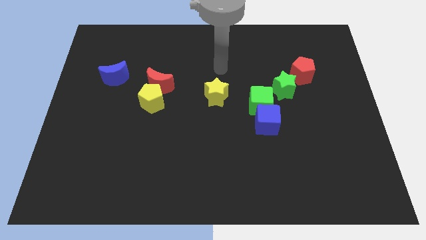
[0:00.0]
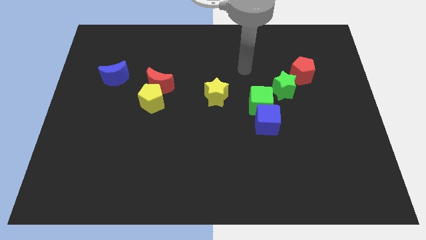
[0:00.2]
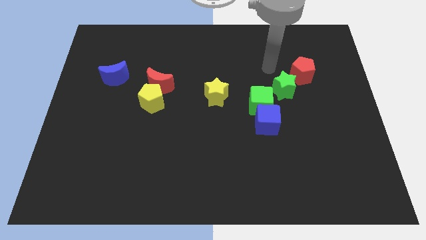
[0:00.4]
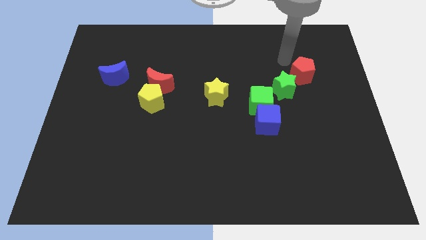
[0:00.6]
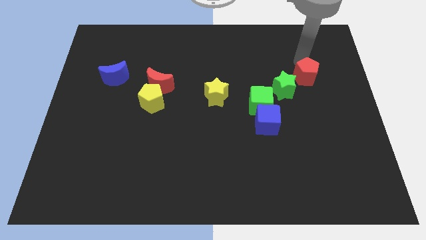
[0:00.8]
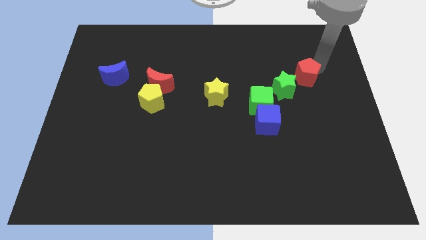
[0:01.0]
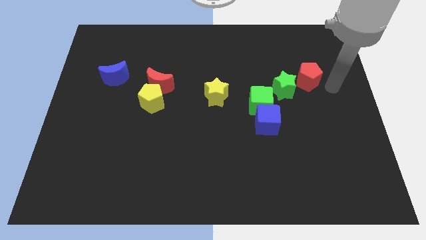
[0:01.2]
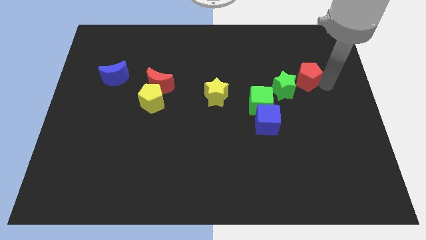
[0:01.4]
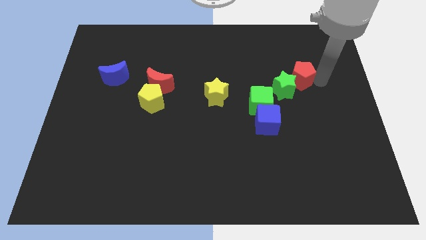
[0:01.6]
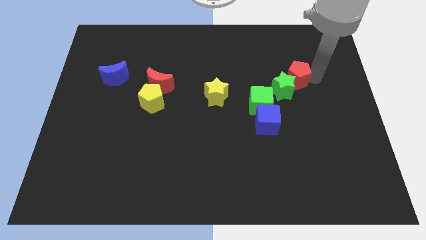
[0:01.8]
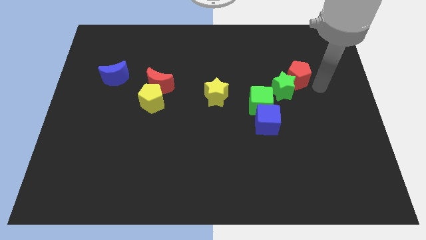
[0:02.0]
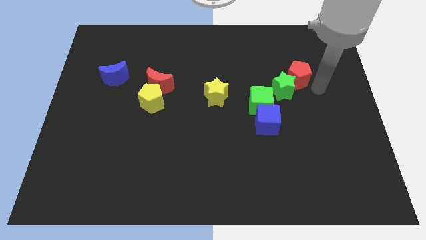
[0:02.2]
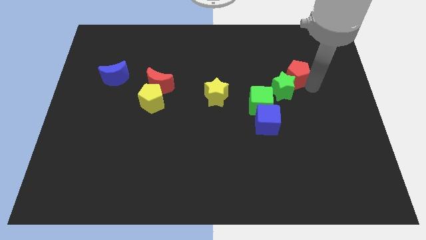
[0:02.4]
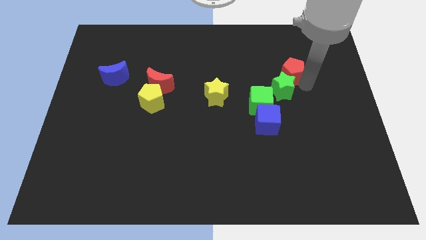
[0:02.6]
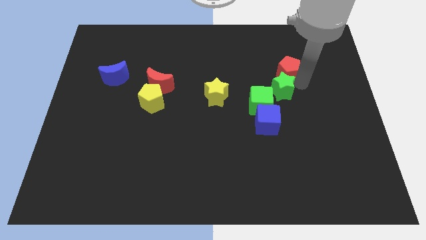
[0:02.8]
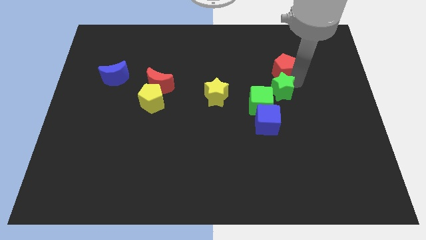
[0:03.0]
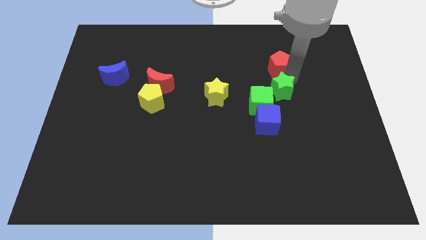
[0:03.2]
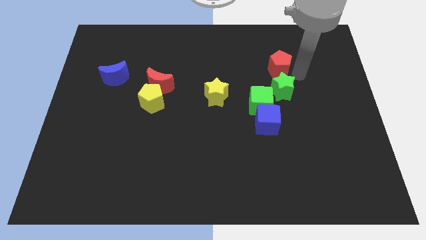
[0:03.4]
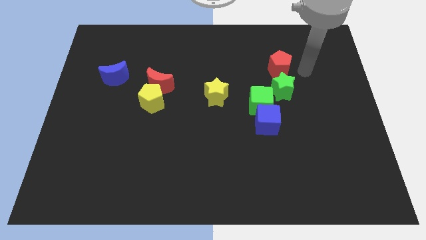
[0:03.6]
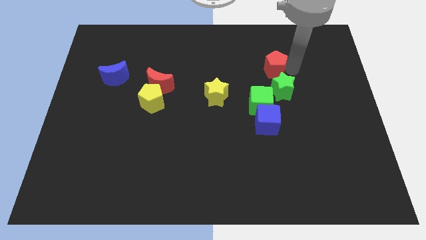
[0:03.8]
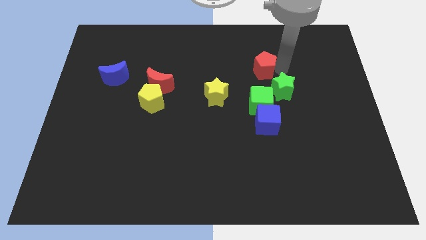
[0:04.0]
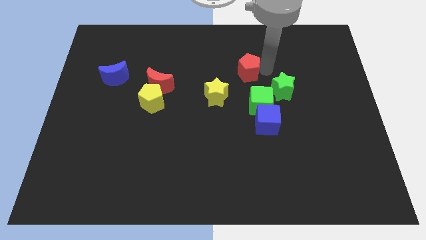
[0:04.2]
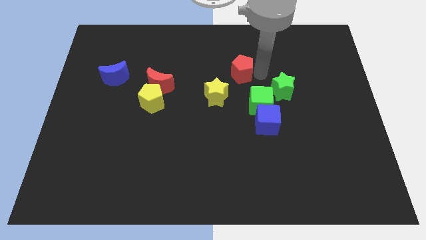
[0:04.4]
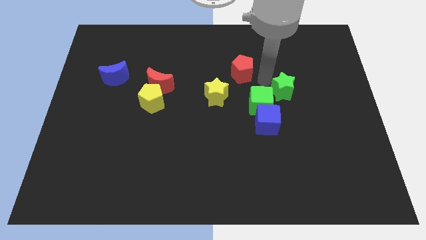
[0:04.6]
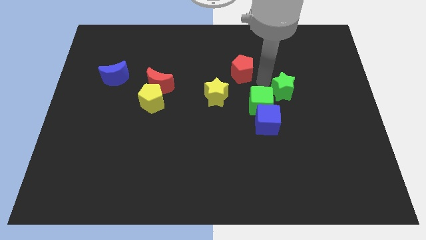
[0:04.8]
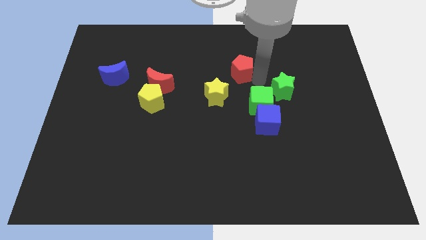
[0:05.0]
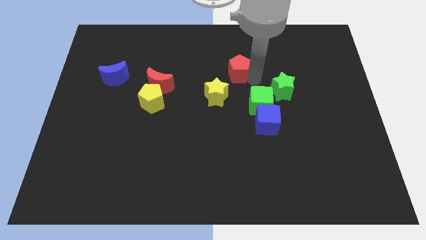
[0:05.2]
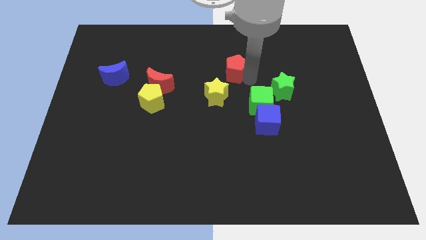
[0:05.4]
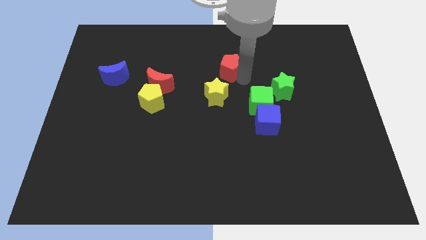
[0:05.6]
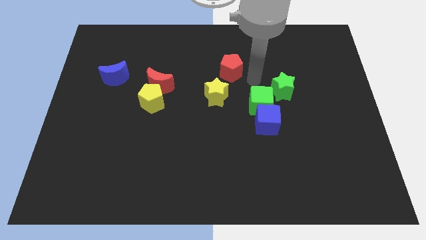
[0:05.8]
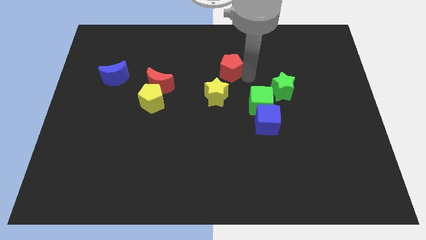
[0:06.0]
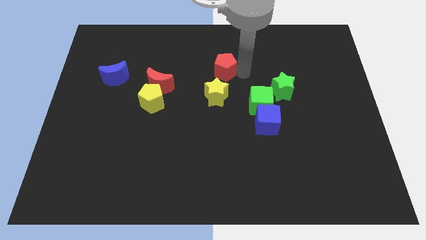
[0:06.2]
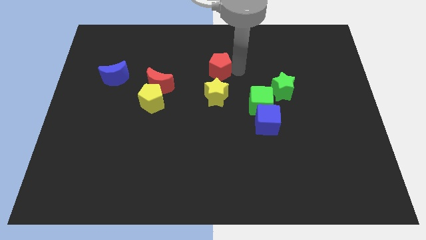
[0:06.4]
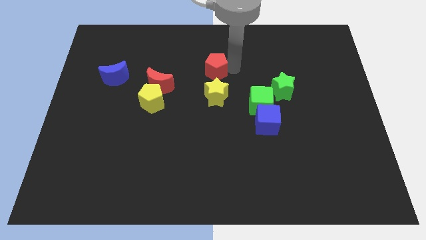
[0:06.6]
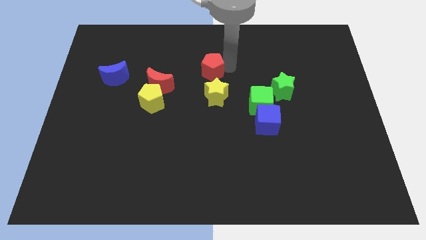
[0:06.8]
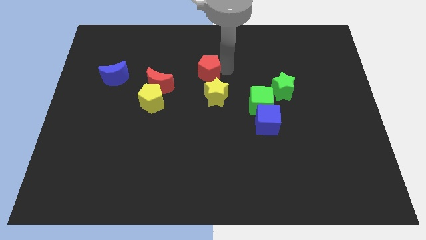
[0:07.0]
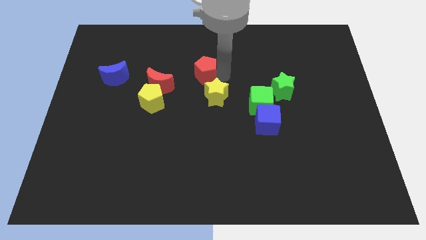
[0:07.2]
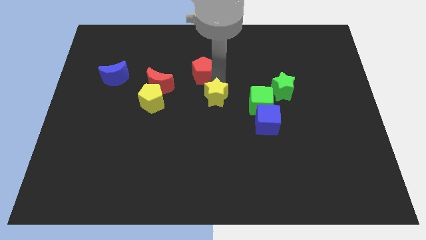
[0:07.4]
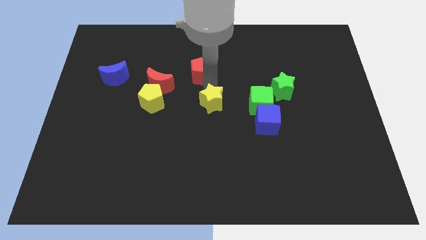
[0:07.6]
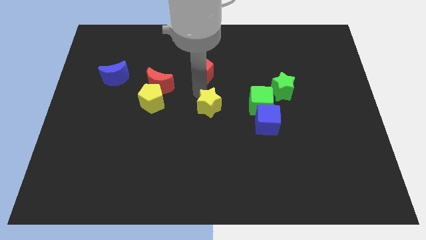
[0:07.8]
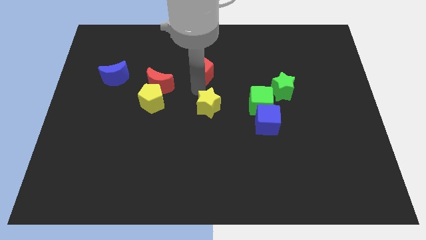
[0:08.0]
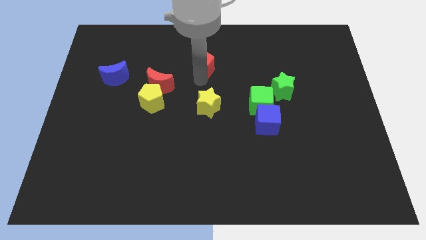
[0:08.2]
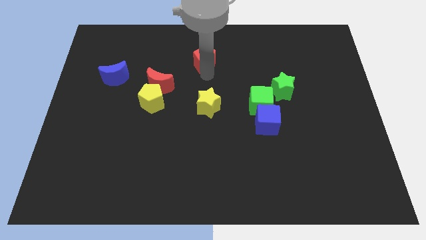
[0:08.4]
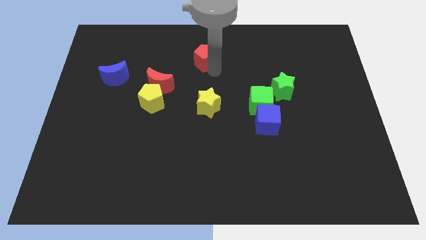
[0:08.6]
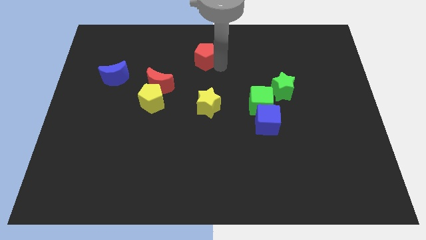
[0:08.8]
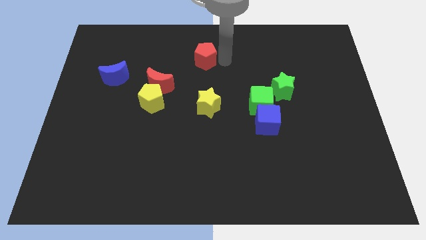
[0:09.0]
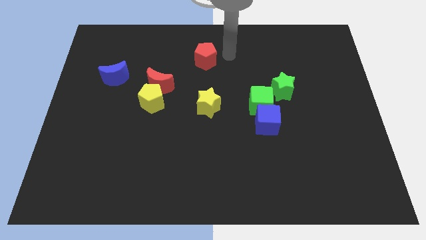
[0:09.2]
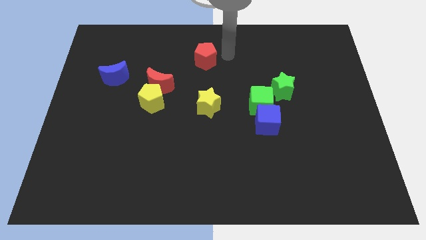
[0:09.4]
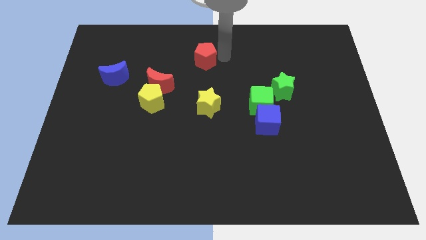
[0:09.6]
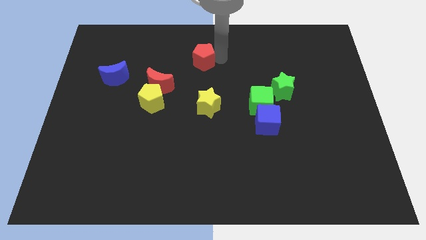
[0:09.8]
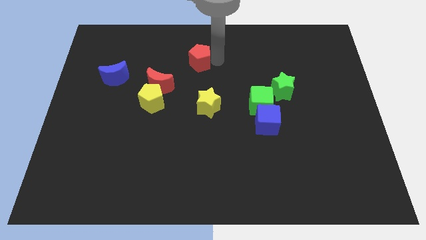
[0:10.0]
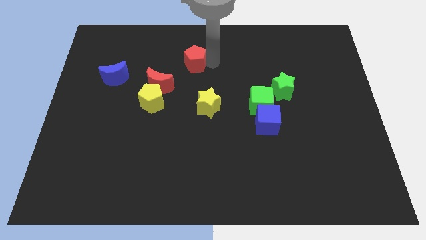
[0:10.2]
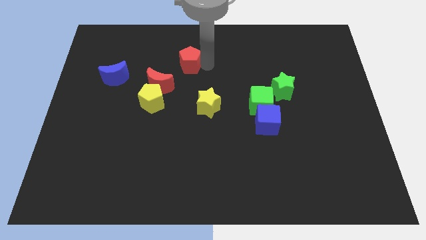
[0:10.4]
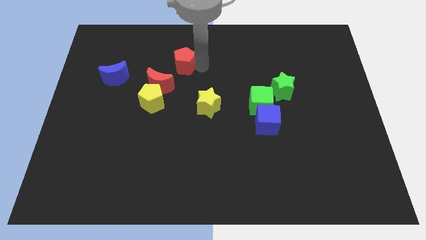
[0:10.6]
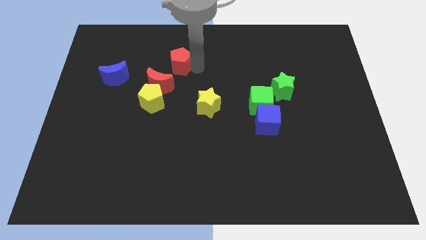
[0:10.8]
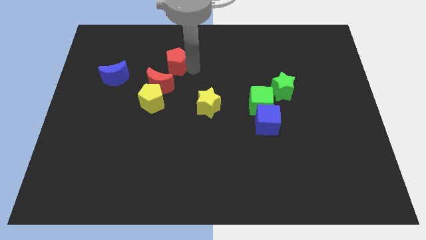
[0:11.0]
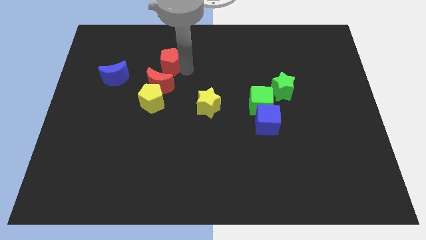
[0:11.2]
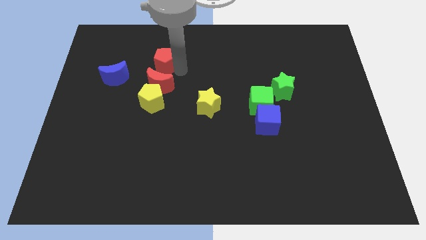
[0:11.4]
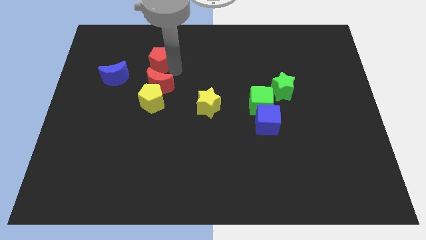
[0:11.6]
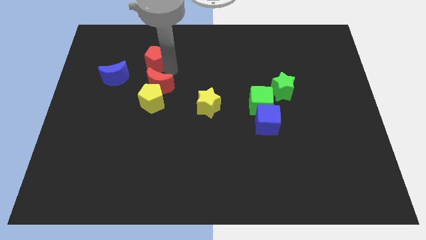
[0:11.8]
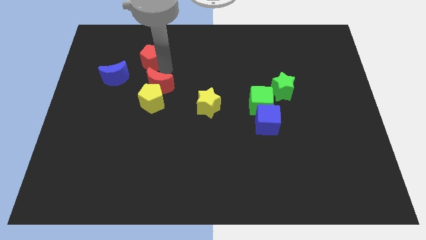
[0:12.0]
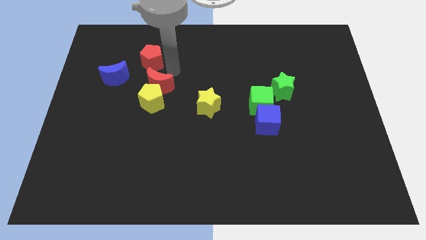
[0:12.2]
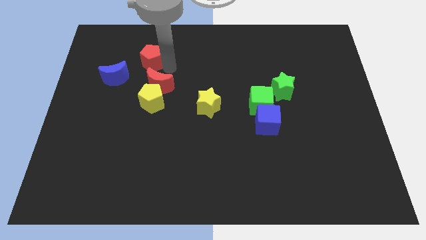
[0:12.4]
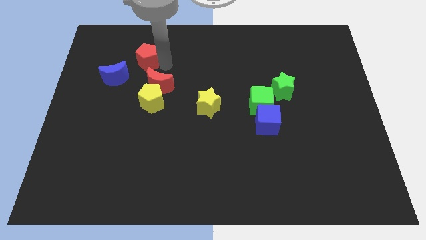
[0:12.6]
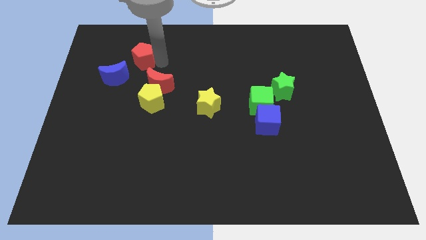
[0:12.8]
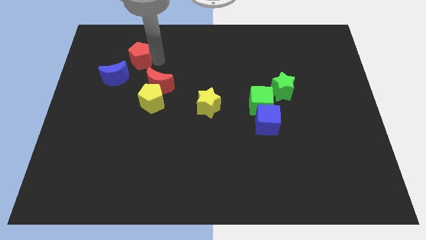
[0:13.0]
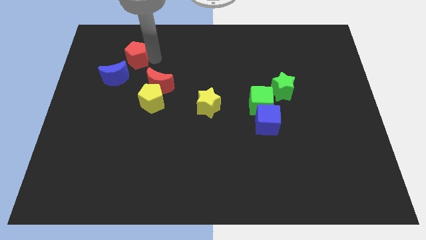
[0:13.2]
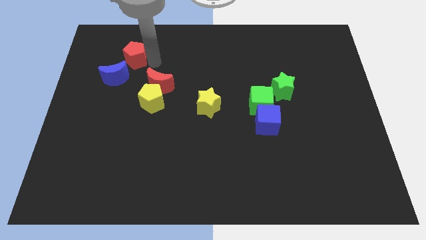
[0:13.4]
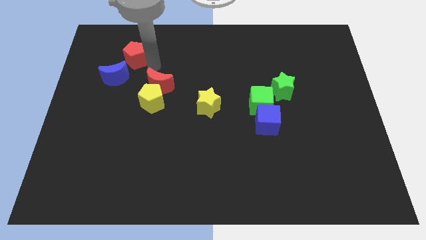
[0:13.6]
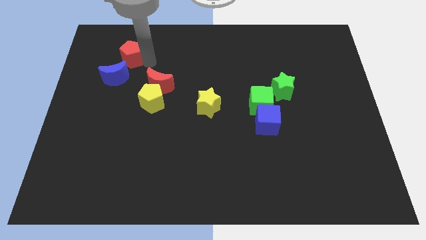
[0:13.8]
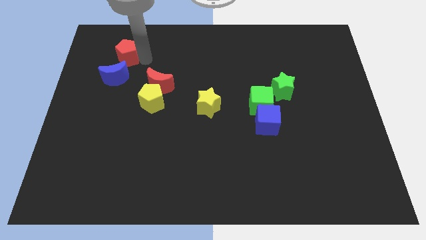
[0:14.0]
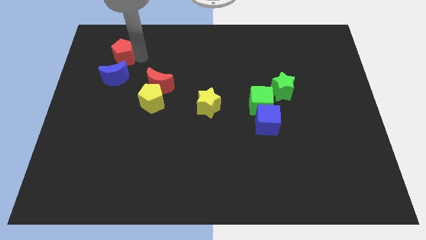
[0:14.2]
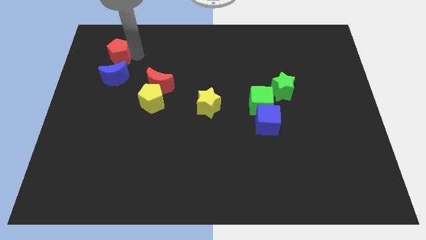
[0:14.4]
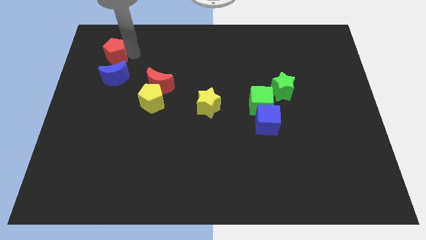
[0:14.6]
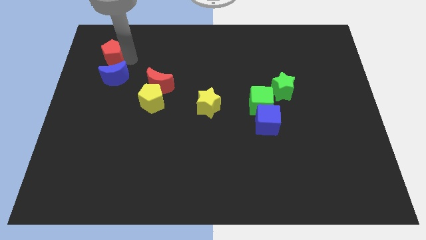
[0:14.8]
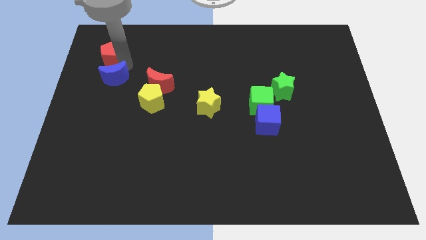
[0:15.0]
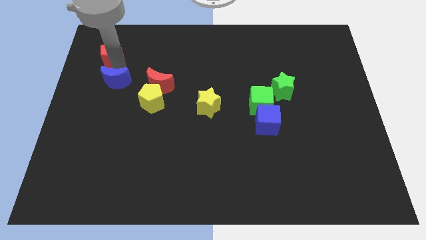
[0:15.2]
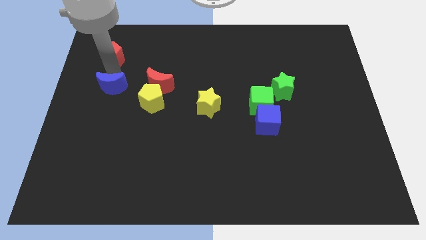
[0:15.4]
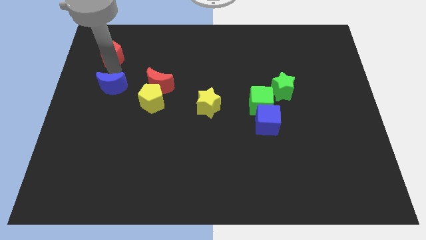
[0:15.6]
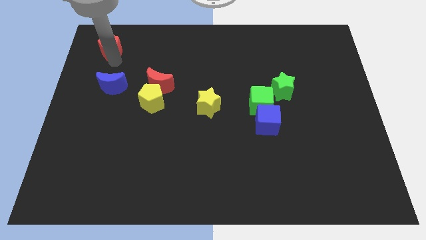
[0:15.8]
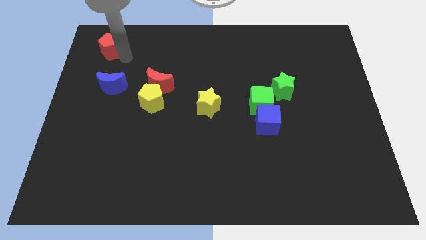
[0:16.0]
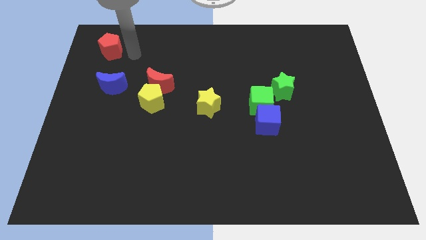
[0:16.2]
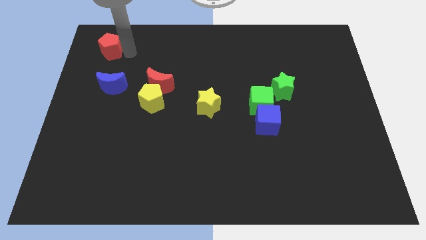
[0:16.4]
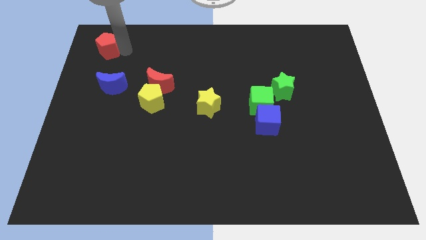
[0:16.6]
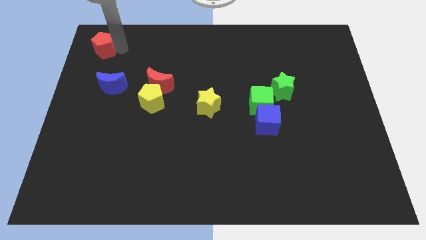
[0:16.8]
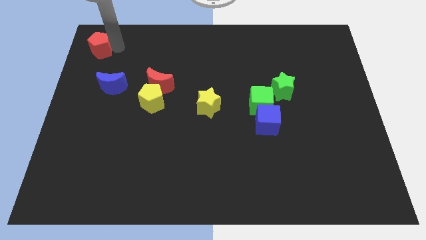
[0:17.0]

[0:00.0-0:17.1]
push the red pentagon to the top left
